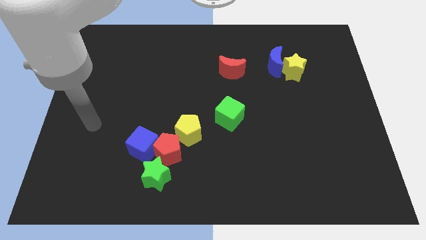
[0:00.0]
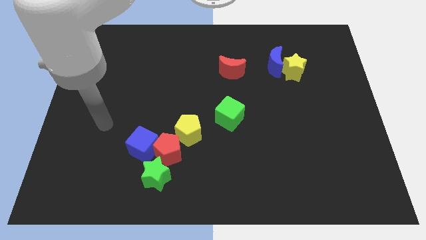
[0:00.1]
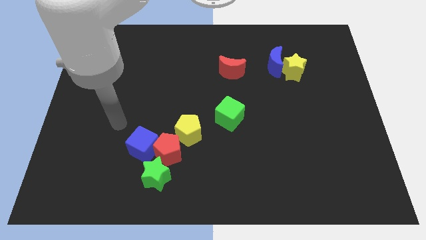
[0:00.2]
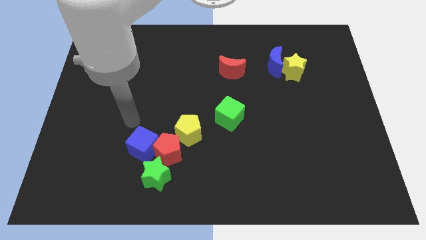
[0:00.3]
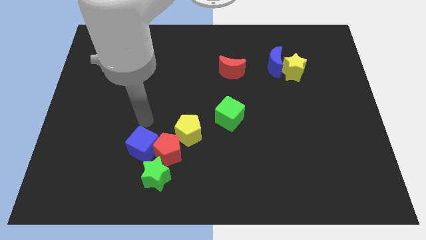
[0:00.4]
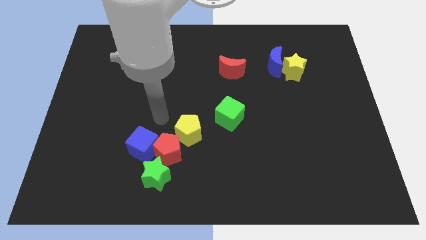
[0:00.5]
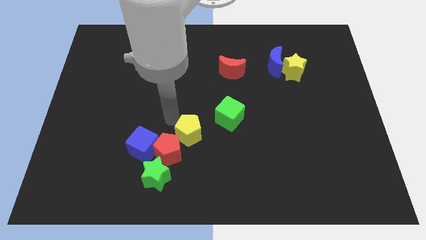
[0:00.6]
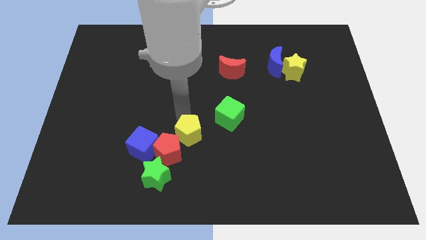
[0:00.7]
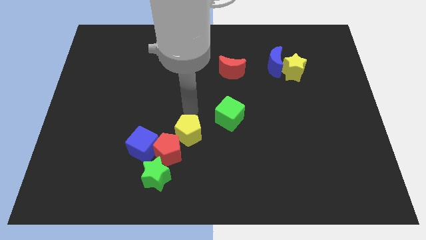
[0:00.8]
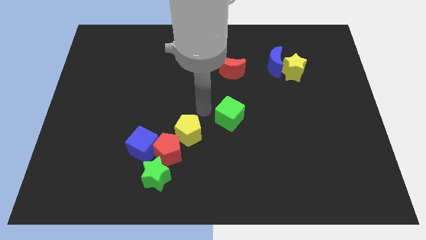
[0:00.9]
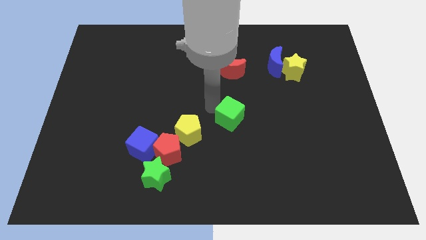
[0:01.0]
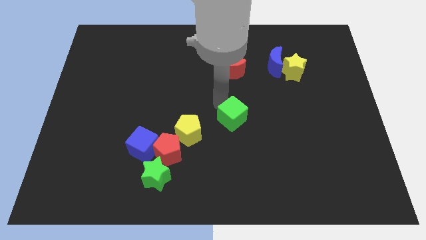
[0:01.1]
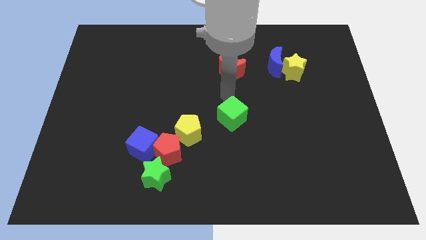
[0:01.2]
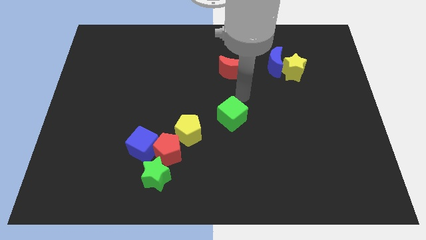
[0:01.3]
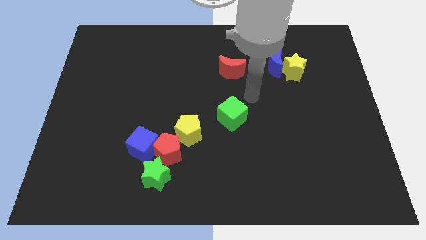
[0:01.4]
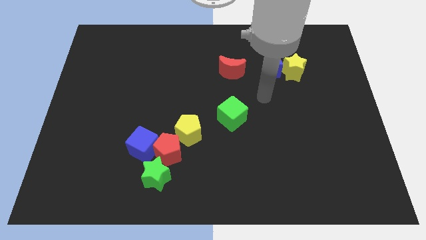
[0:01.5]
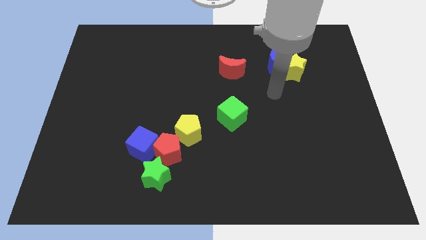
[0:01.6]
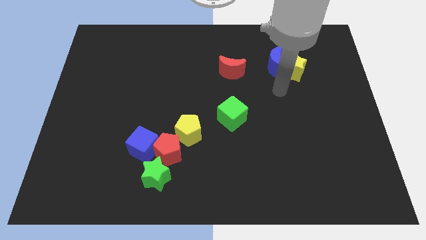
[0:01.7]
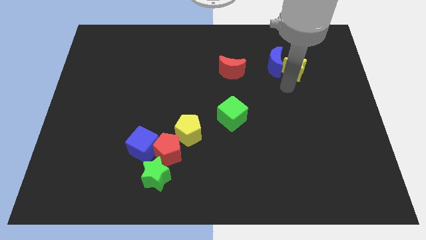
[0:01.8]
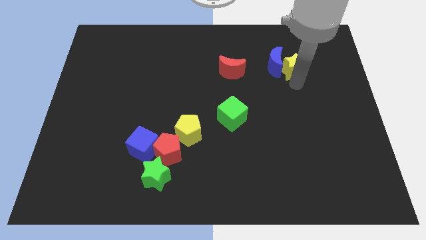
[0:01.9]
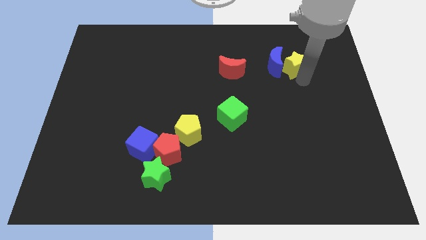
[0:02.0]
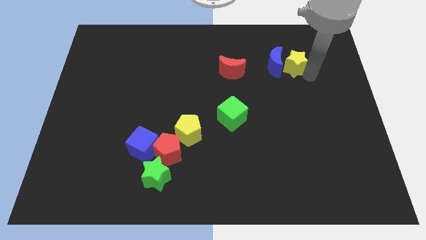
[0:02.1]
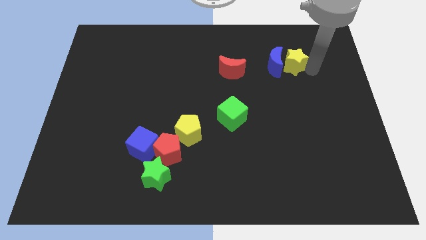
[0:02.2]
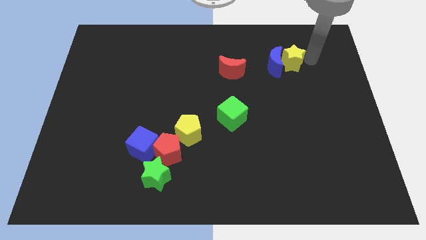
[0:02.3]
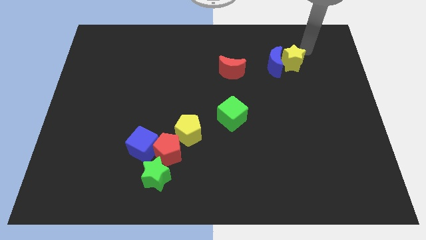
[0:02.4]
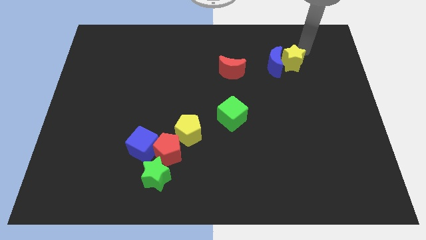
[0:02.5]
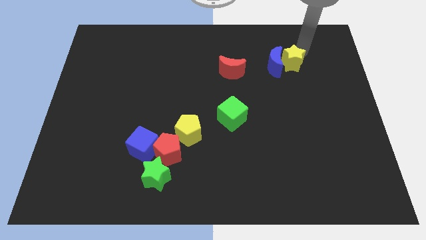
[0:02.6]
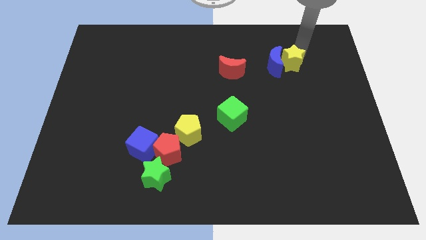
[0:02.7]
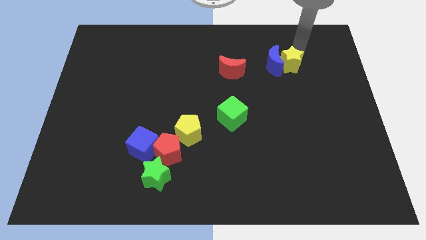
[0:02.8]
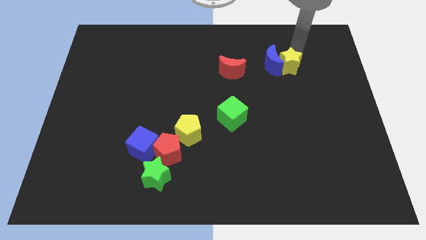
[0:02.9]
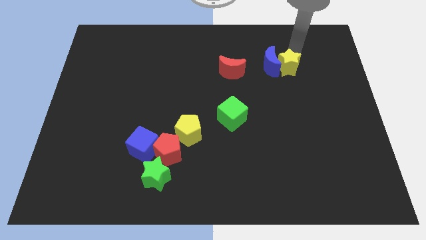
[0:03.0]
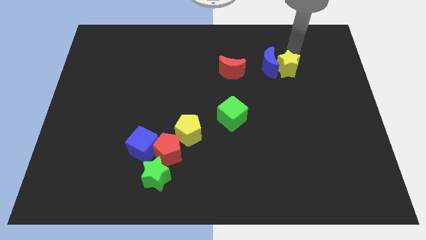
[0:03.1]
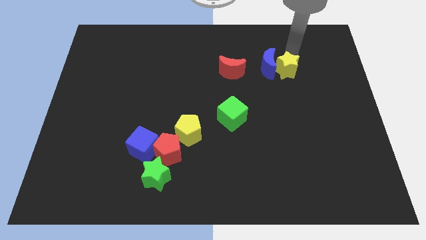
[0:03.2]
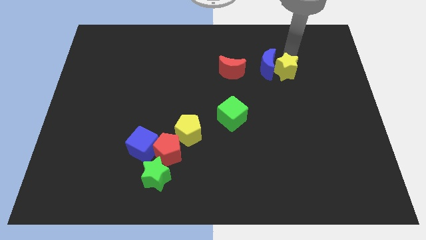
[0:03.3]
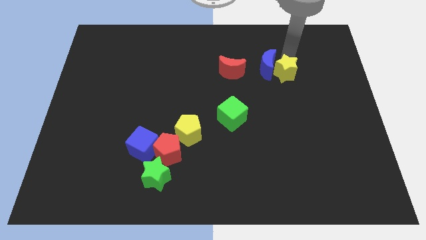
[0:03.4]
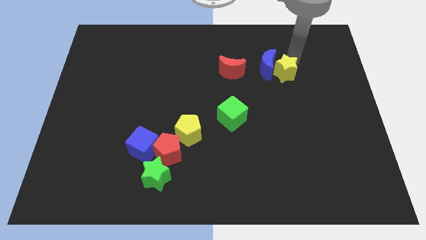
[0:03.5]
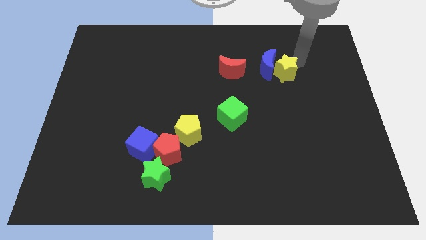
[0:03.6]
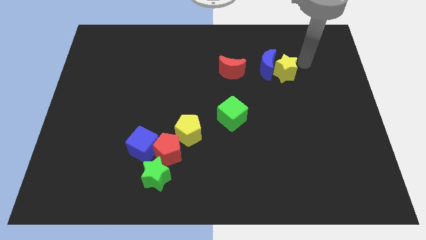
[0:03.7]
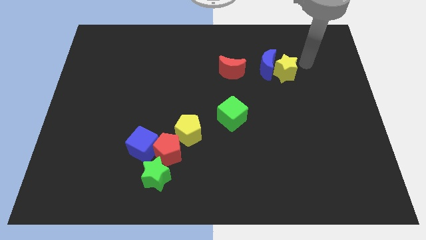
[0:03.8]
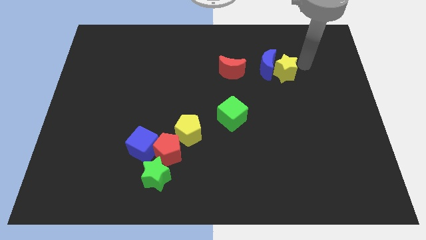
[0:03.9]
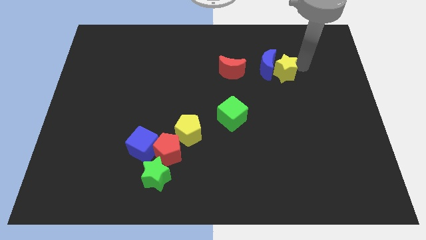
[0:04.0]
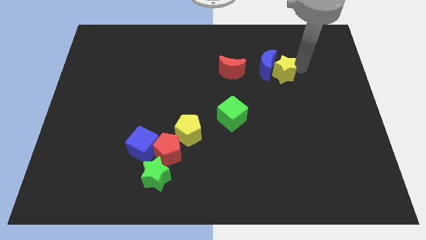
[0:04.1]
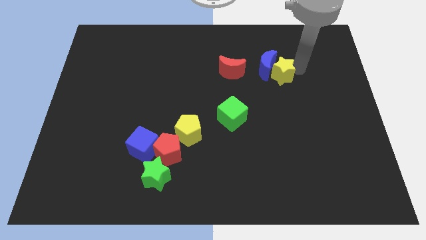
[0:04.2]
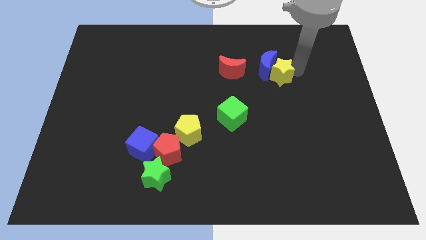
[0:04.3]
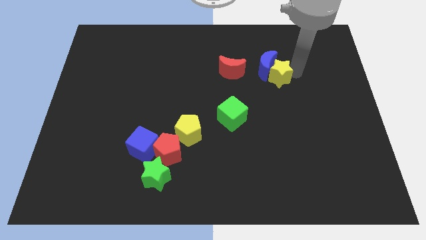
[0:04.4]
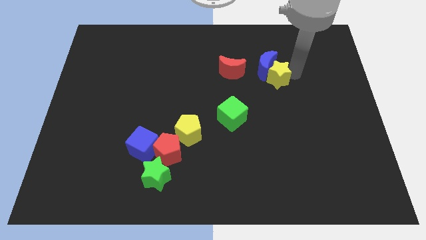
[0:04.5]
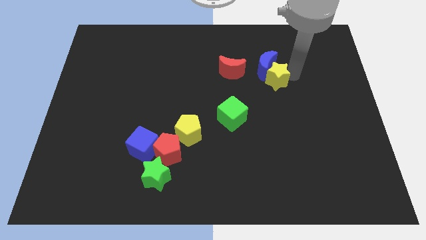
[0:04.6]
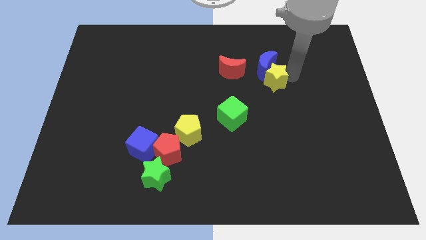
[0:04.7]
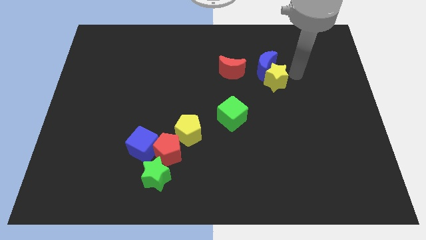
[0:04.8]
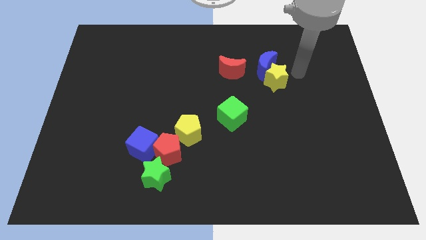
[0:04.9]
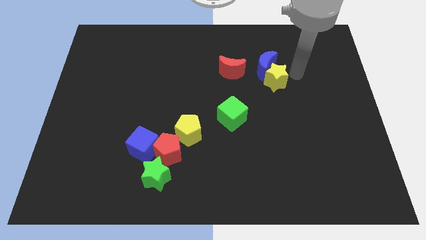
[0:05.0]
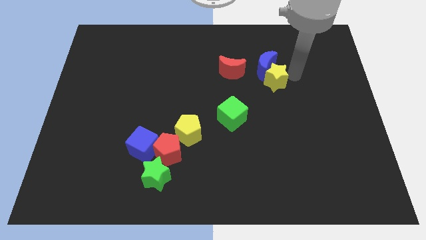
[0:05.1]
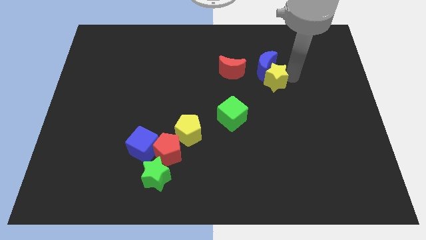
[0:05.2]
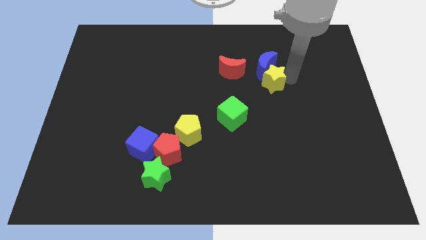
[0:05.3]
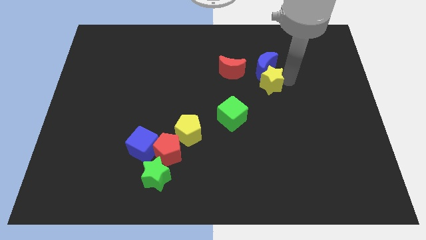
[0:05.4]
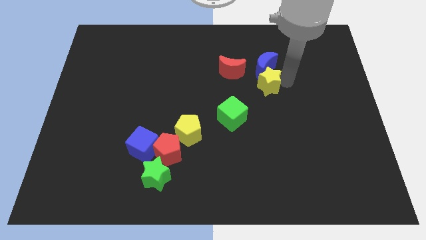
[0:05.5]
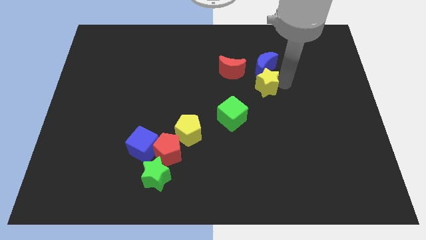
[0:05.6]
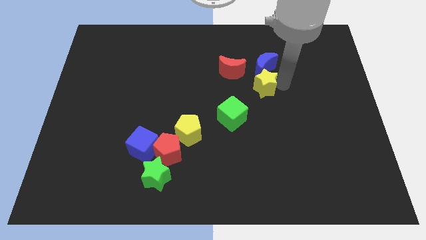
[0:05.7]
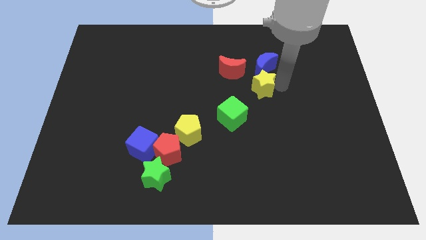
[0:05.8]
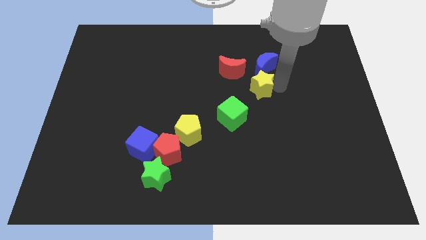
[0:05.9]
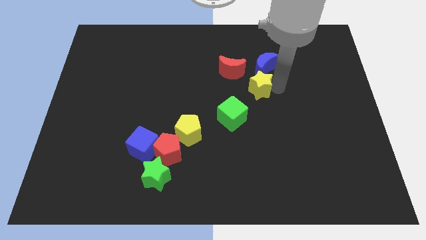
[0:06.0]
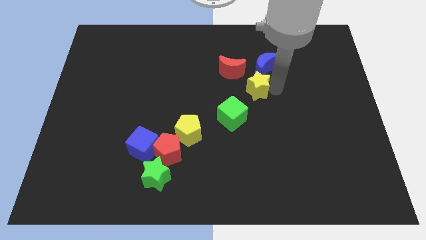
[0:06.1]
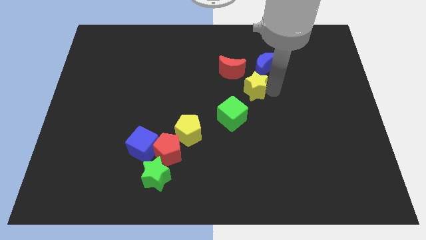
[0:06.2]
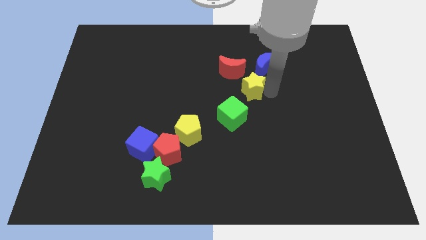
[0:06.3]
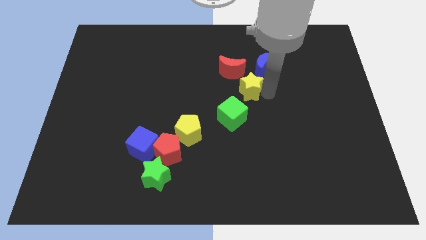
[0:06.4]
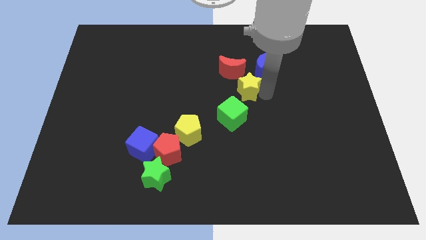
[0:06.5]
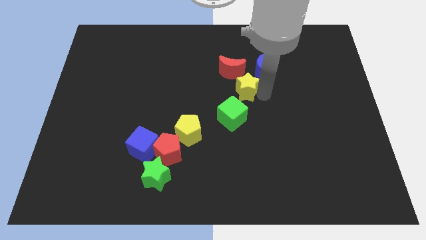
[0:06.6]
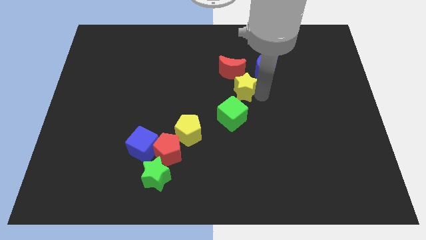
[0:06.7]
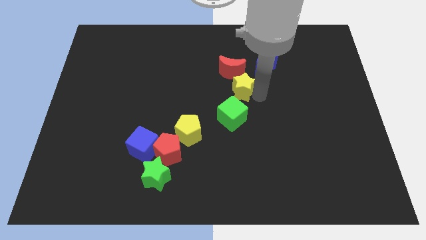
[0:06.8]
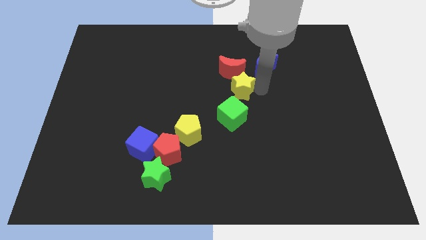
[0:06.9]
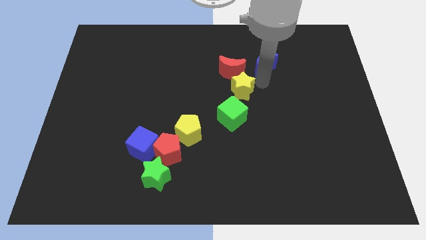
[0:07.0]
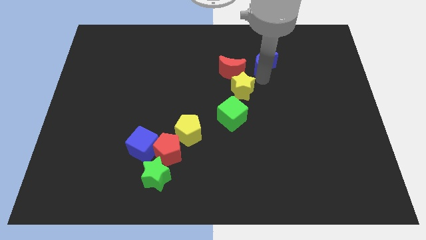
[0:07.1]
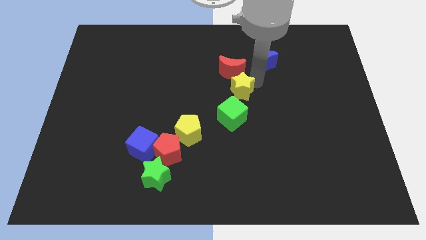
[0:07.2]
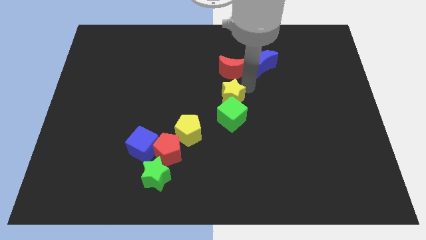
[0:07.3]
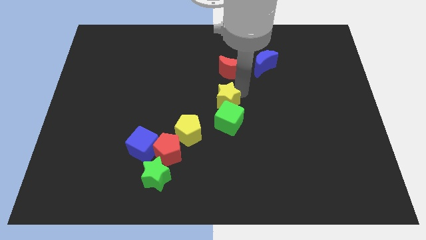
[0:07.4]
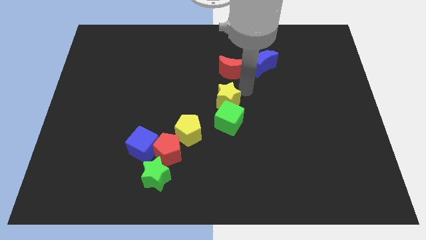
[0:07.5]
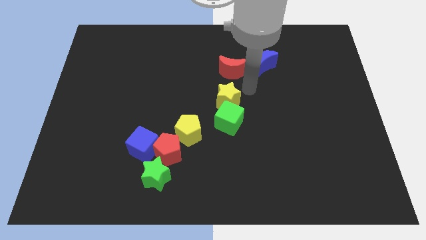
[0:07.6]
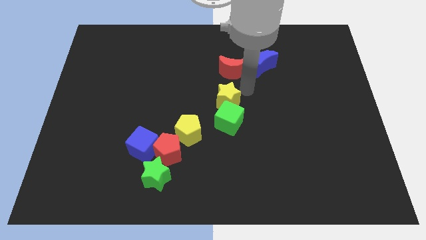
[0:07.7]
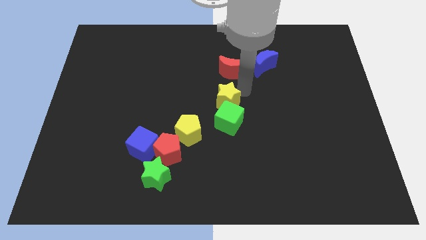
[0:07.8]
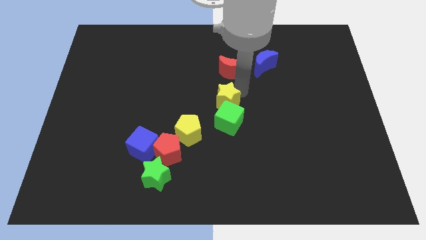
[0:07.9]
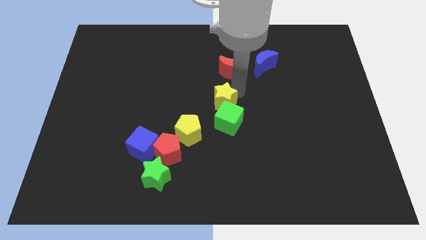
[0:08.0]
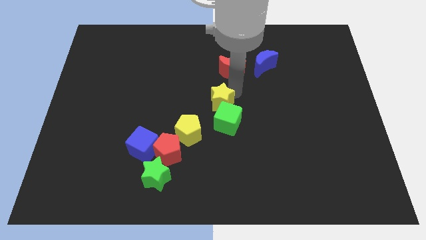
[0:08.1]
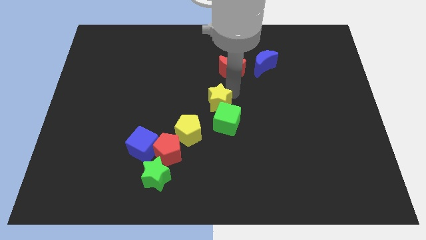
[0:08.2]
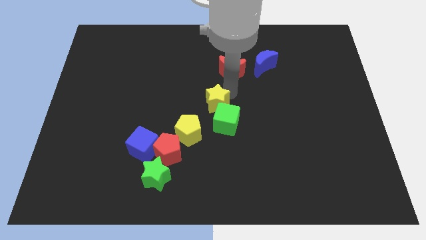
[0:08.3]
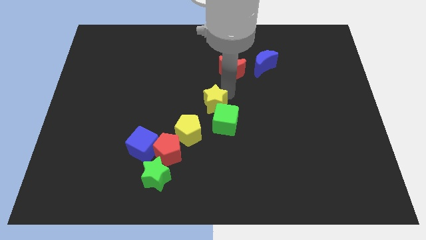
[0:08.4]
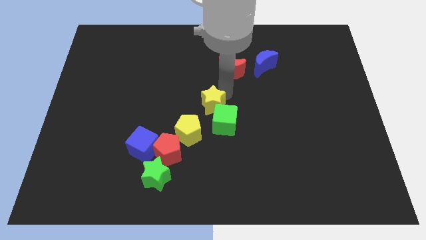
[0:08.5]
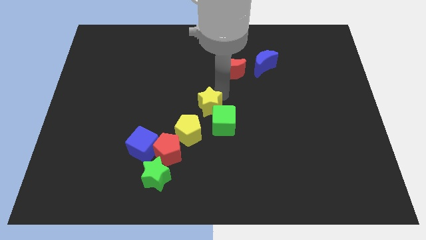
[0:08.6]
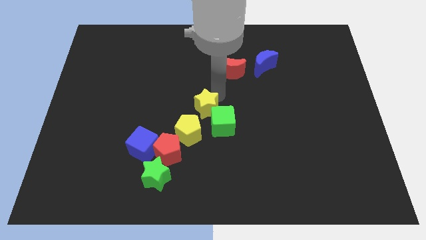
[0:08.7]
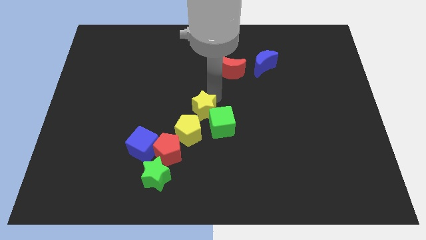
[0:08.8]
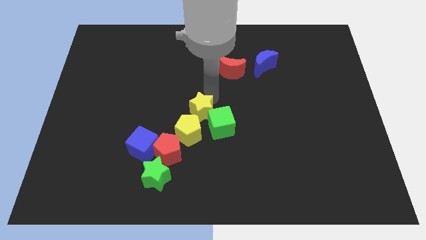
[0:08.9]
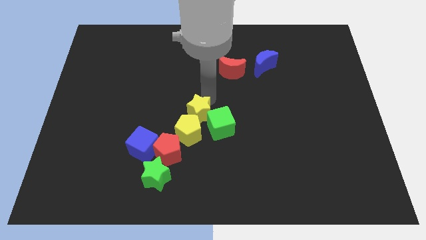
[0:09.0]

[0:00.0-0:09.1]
put the yellow star to the yellow pentagon
